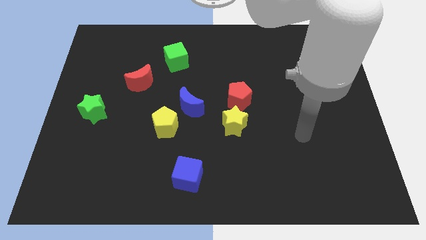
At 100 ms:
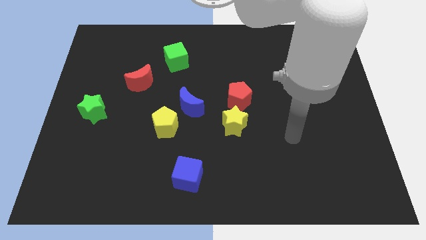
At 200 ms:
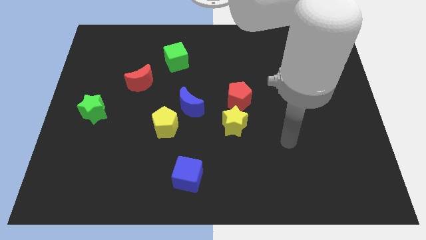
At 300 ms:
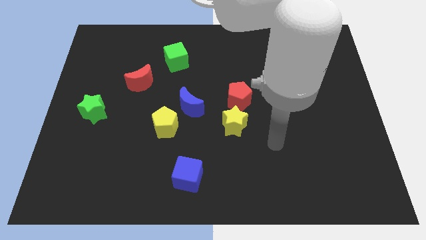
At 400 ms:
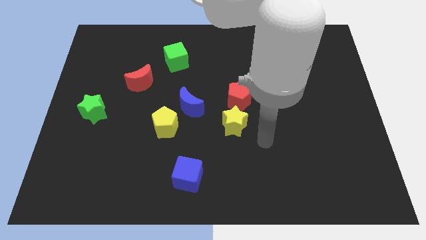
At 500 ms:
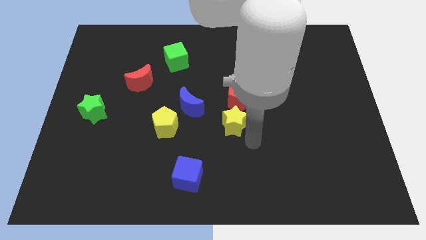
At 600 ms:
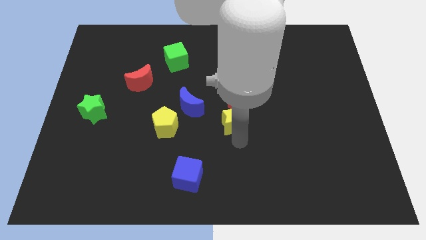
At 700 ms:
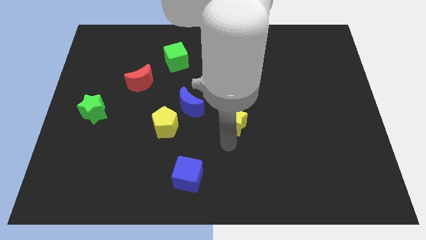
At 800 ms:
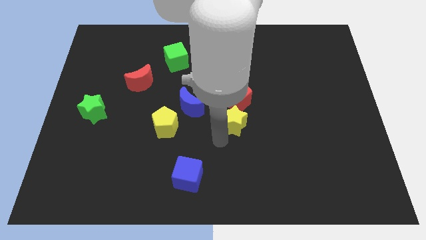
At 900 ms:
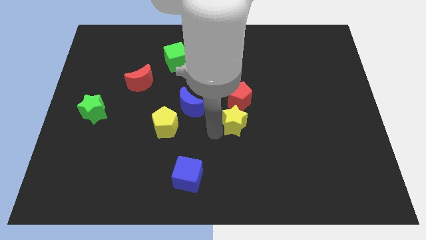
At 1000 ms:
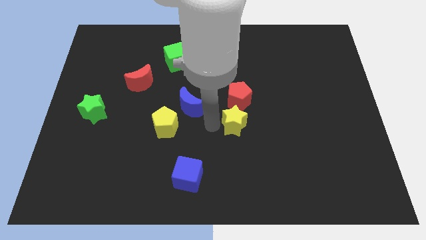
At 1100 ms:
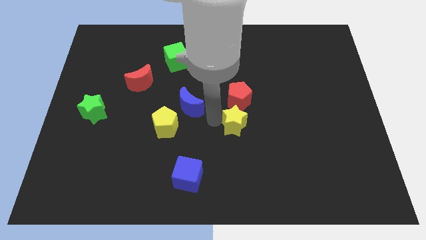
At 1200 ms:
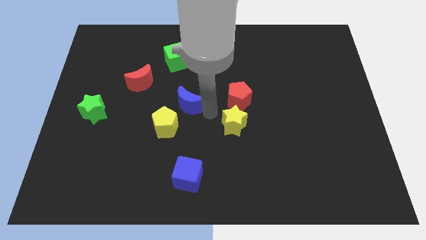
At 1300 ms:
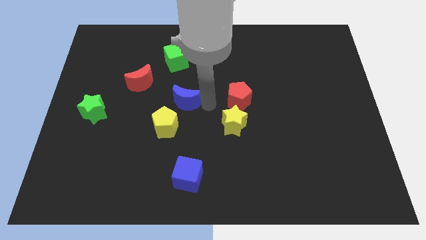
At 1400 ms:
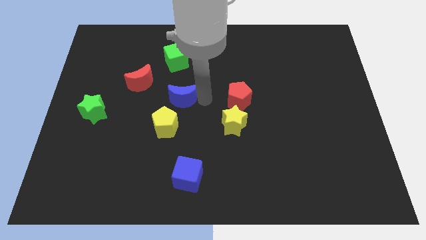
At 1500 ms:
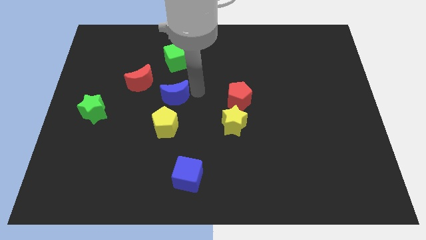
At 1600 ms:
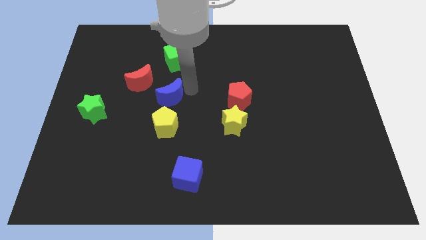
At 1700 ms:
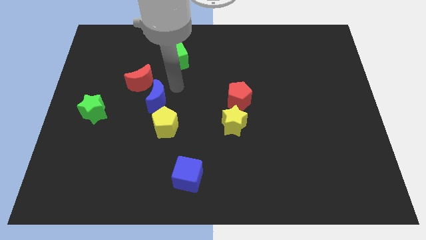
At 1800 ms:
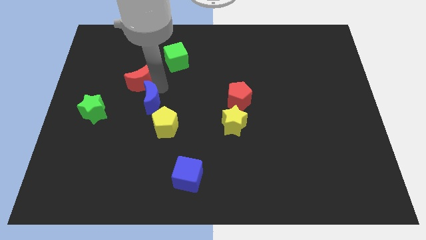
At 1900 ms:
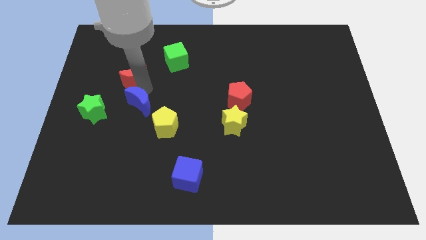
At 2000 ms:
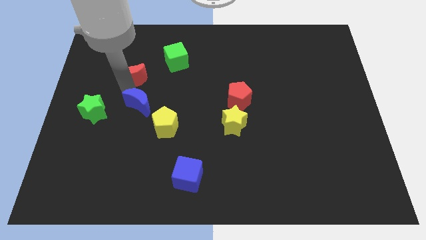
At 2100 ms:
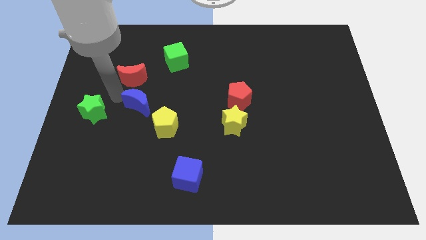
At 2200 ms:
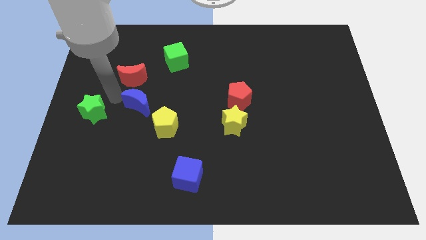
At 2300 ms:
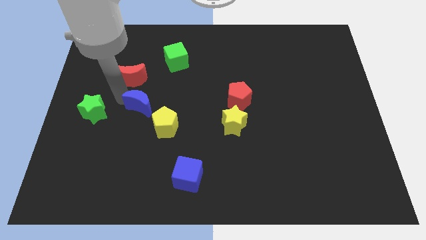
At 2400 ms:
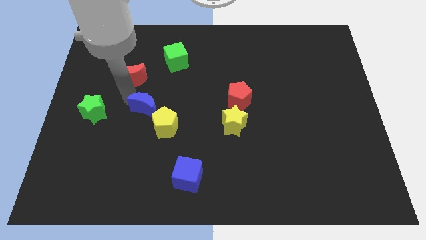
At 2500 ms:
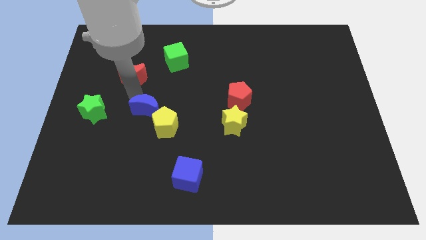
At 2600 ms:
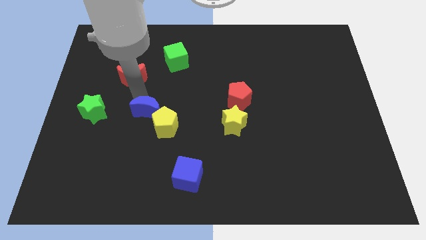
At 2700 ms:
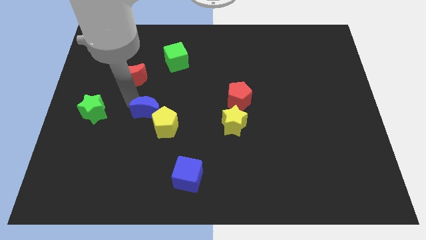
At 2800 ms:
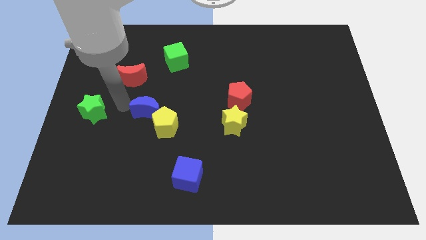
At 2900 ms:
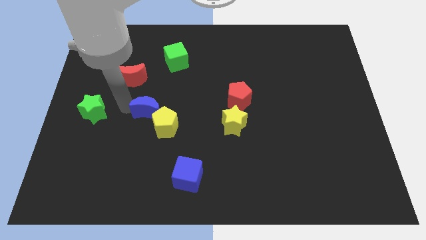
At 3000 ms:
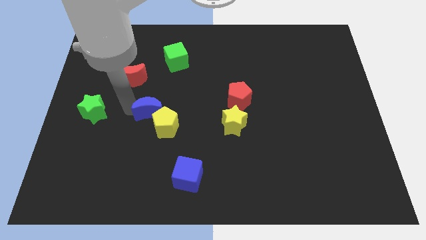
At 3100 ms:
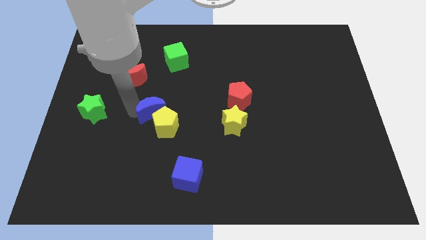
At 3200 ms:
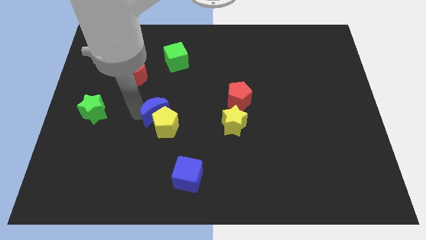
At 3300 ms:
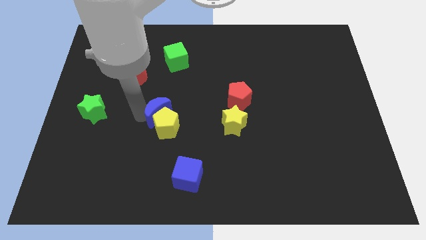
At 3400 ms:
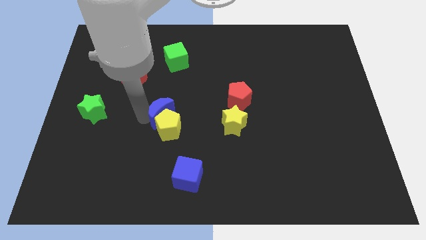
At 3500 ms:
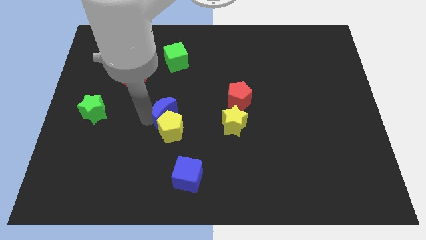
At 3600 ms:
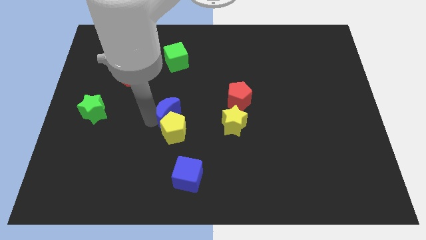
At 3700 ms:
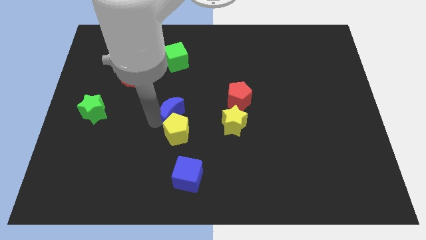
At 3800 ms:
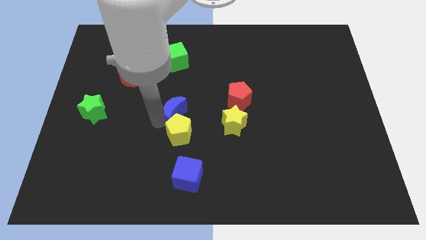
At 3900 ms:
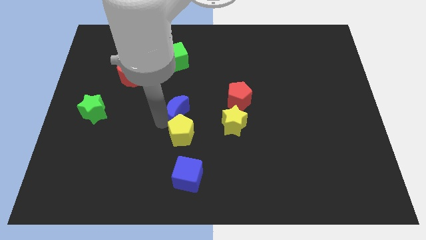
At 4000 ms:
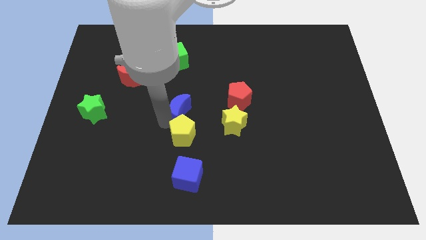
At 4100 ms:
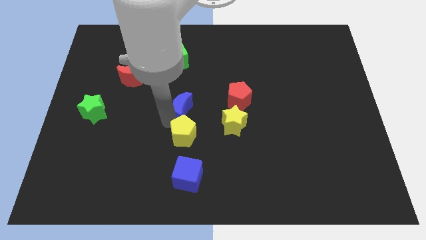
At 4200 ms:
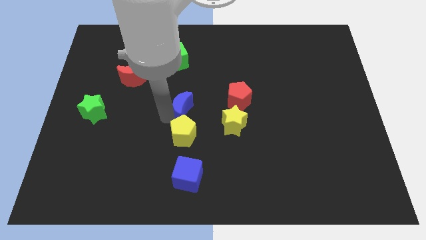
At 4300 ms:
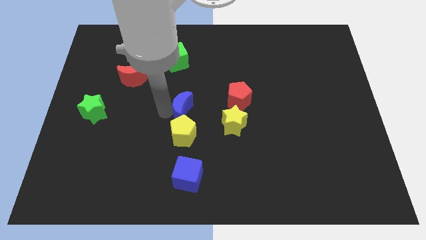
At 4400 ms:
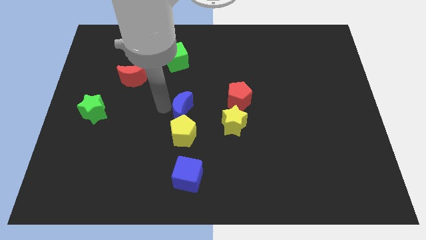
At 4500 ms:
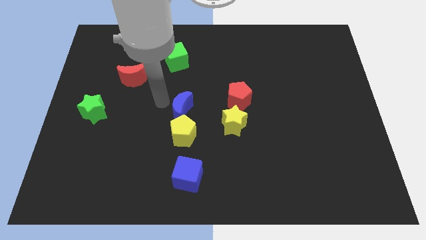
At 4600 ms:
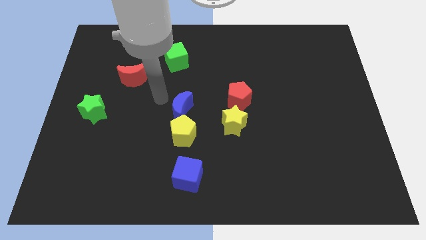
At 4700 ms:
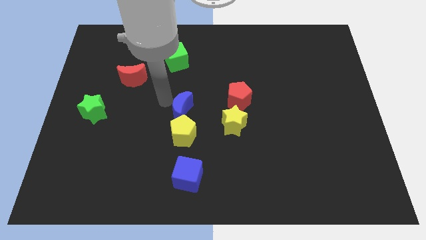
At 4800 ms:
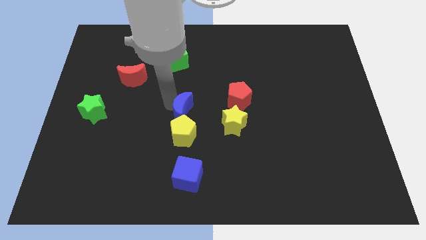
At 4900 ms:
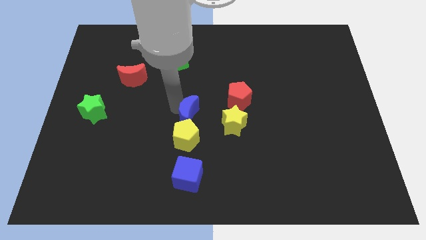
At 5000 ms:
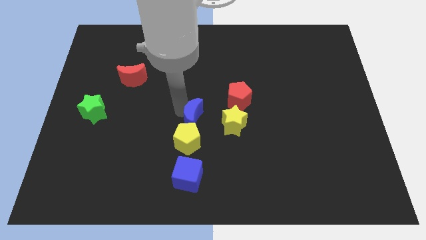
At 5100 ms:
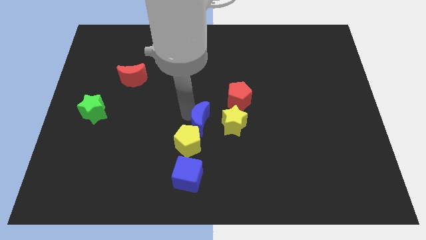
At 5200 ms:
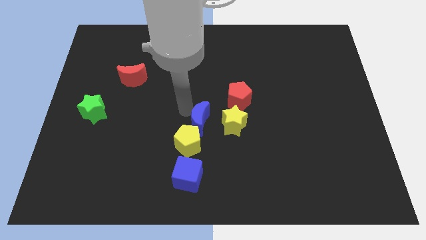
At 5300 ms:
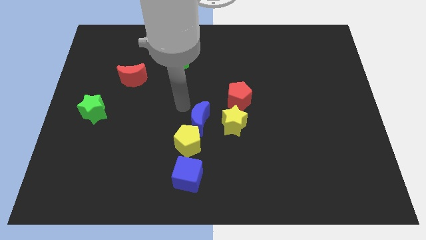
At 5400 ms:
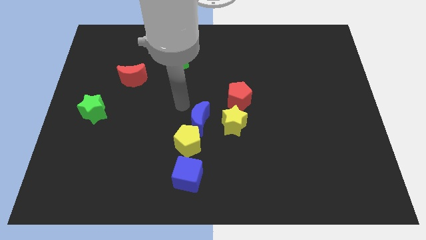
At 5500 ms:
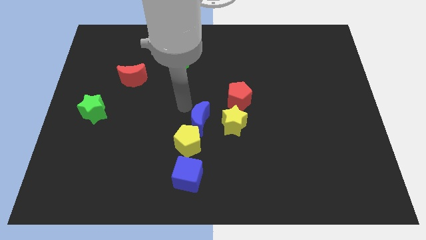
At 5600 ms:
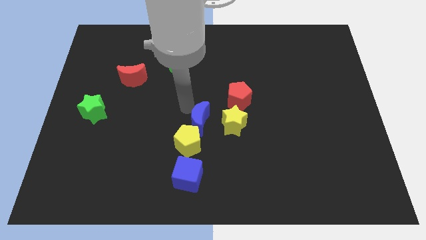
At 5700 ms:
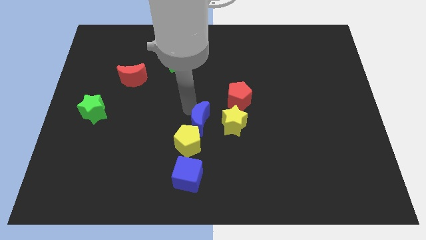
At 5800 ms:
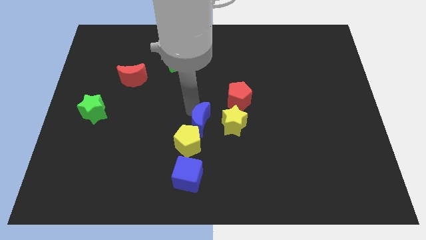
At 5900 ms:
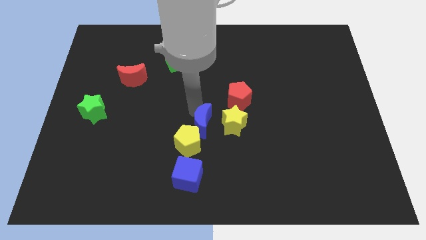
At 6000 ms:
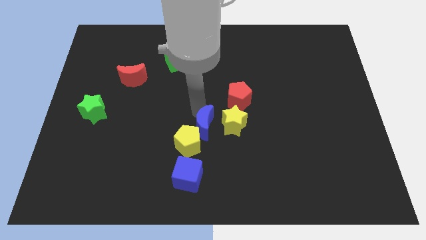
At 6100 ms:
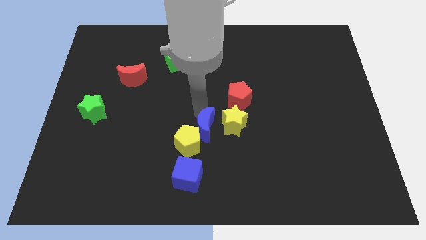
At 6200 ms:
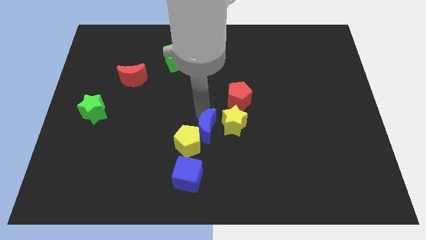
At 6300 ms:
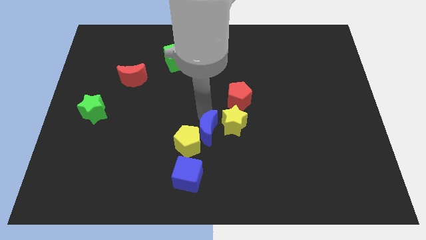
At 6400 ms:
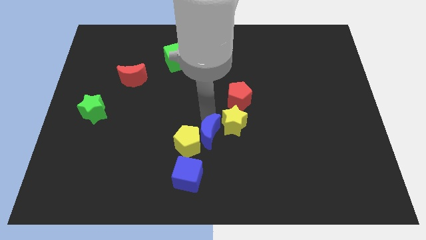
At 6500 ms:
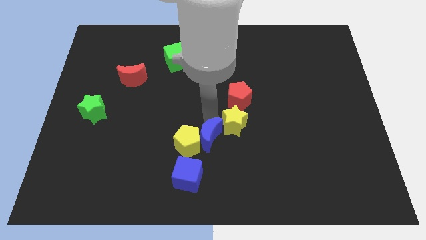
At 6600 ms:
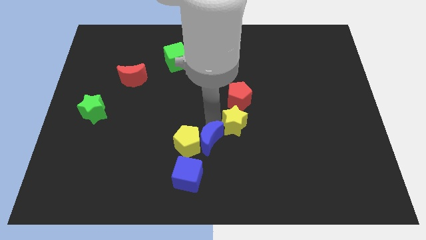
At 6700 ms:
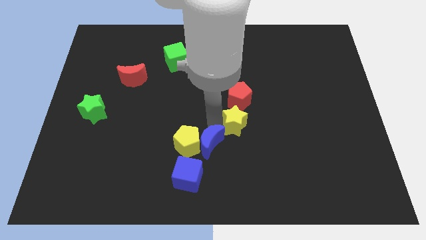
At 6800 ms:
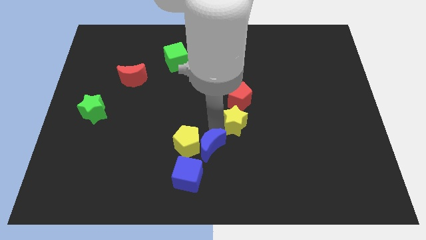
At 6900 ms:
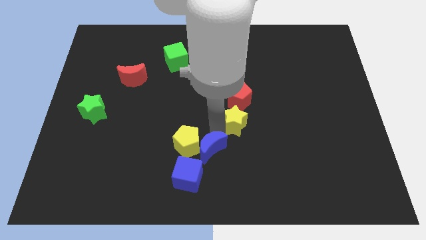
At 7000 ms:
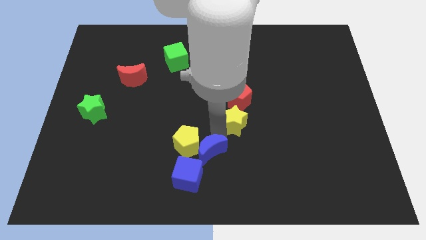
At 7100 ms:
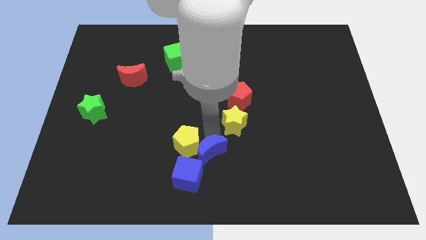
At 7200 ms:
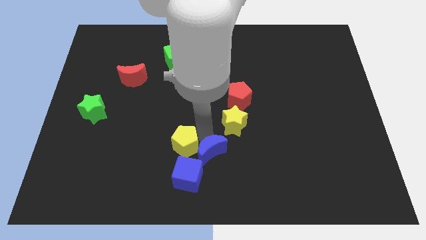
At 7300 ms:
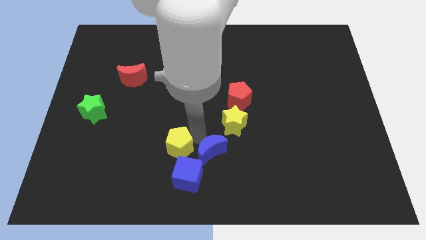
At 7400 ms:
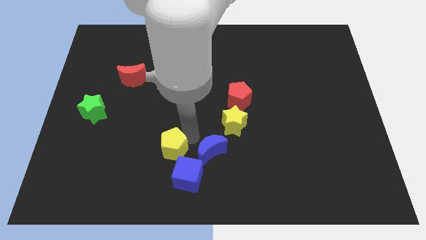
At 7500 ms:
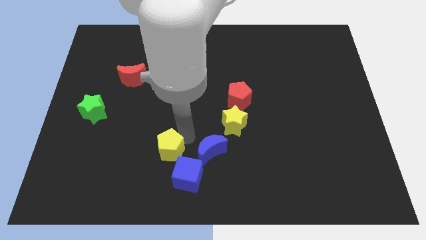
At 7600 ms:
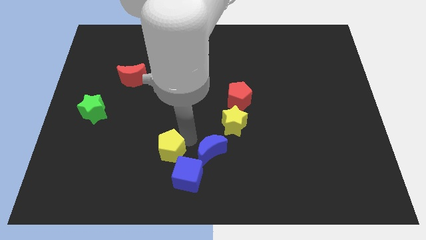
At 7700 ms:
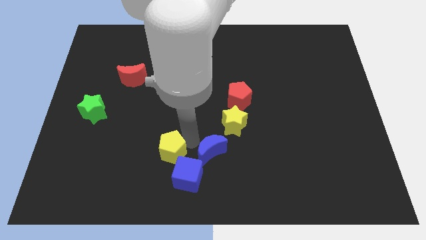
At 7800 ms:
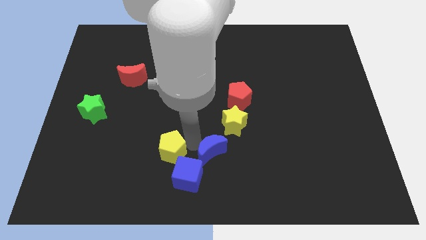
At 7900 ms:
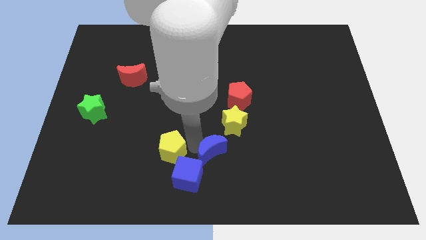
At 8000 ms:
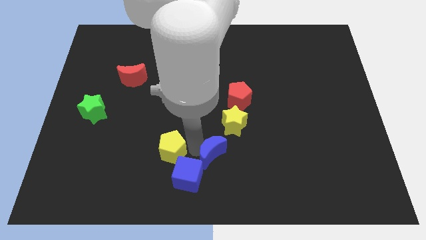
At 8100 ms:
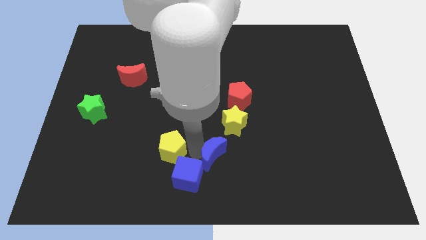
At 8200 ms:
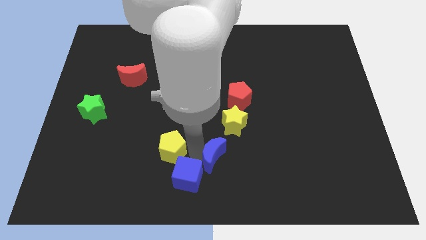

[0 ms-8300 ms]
push the blue moon to the bottom side of the yellow star
